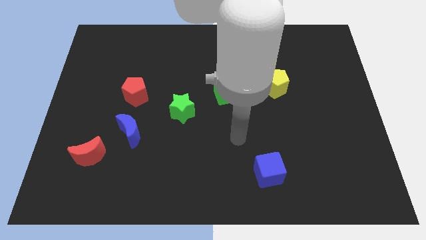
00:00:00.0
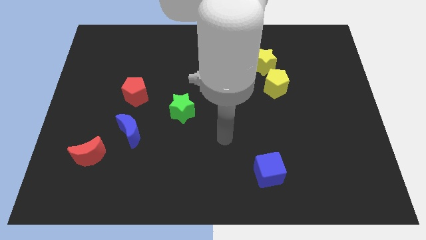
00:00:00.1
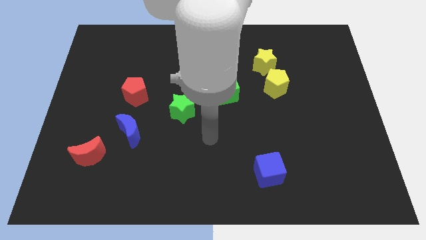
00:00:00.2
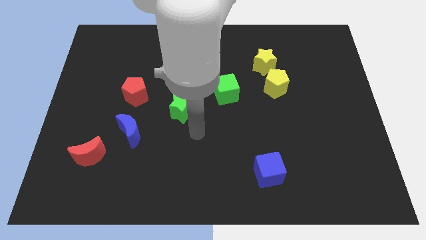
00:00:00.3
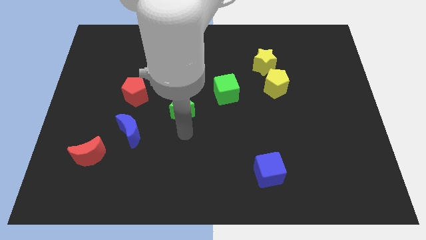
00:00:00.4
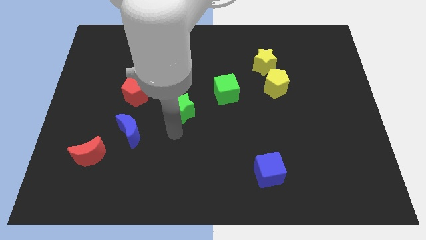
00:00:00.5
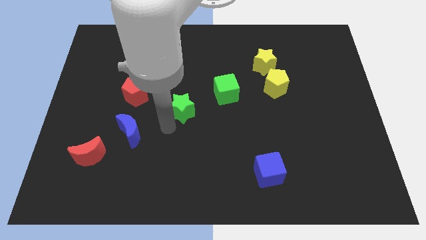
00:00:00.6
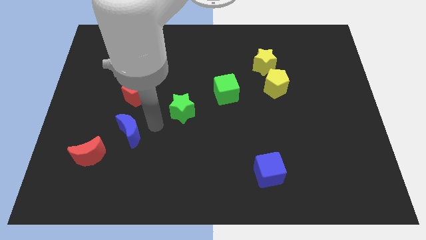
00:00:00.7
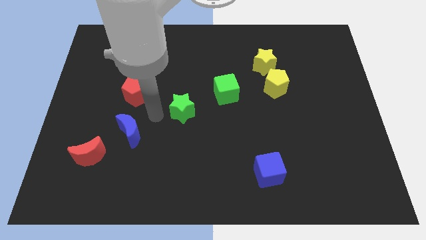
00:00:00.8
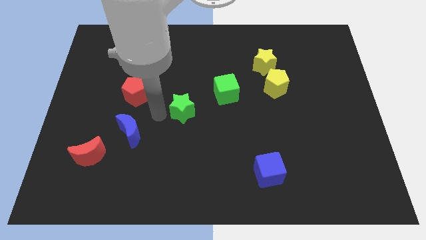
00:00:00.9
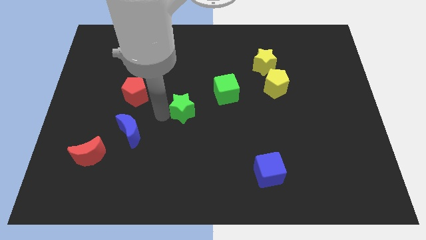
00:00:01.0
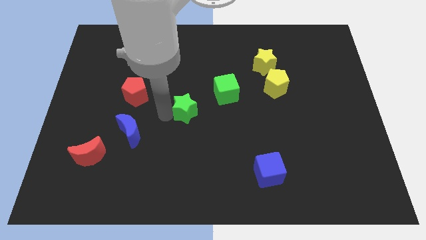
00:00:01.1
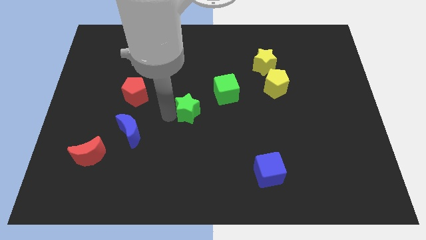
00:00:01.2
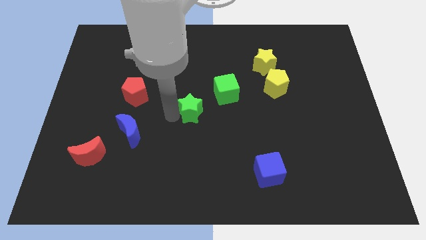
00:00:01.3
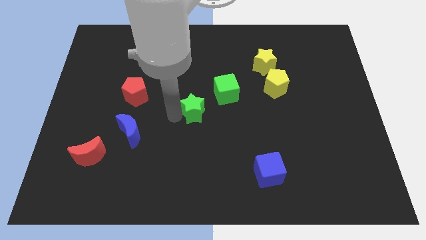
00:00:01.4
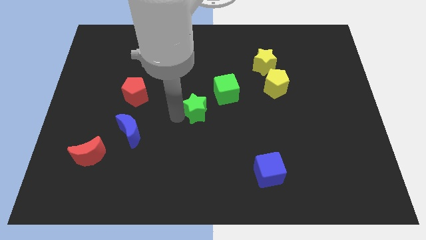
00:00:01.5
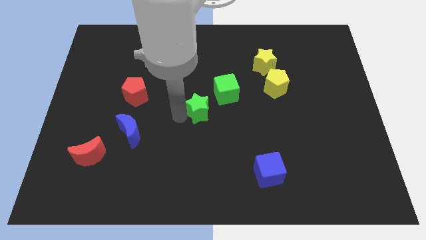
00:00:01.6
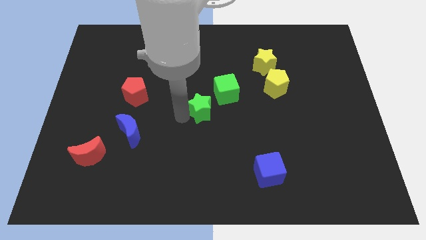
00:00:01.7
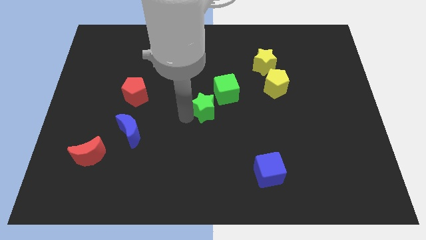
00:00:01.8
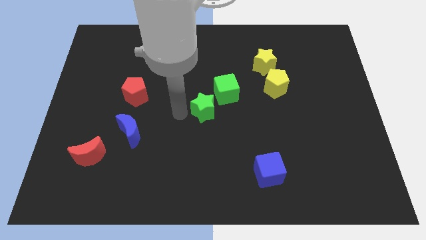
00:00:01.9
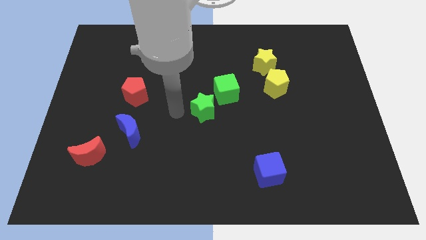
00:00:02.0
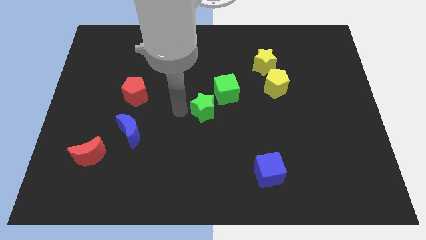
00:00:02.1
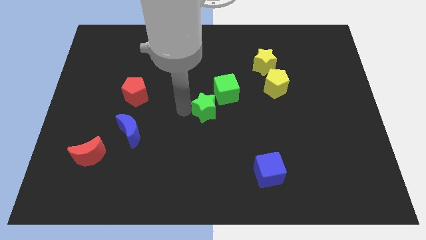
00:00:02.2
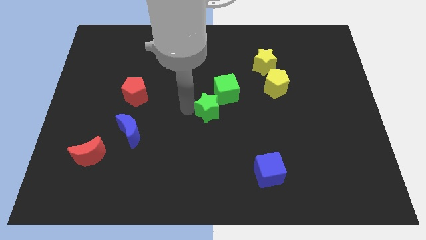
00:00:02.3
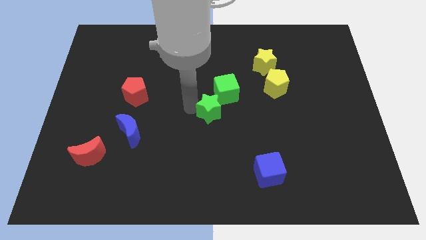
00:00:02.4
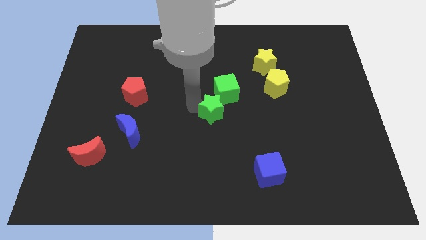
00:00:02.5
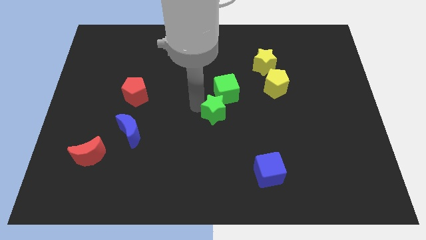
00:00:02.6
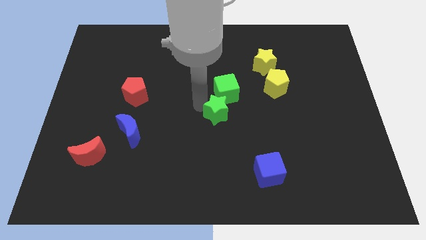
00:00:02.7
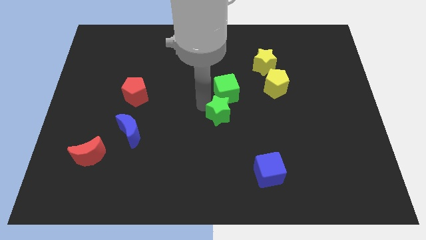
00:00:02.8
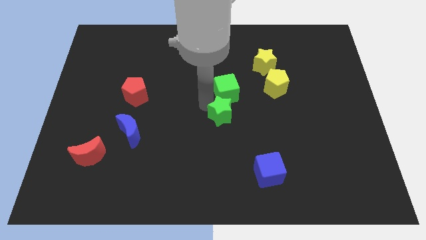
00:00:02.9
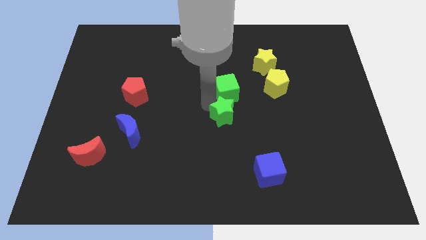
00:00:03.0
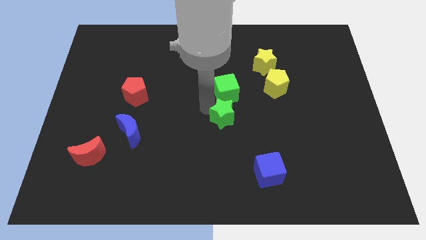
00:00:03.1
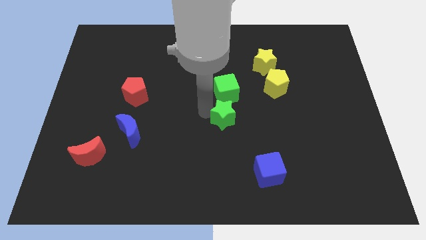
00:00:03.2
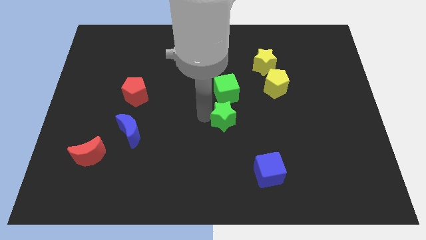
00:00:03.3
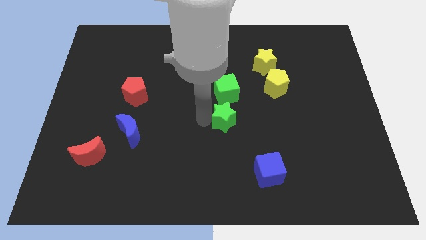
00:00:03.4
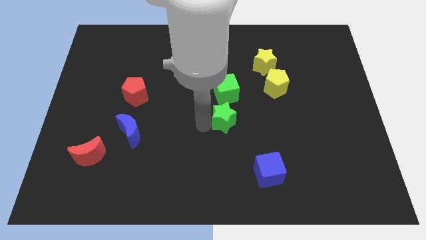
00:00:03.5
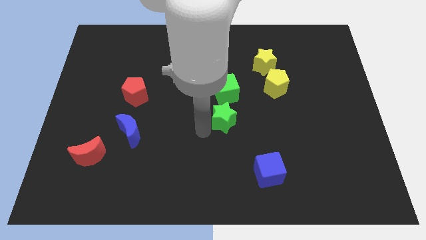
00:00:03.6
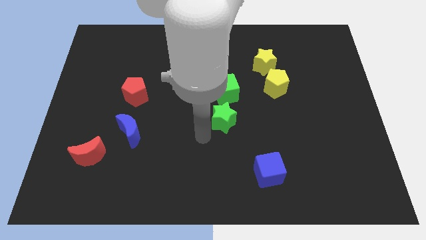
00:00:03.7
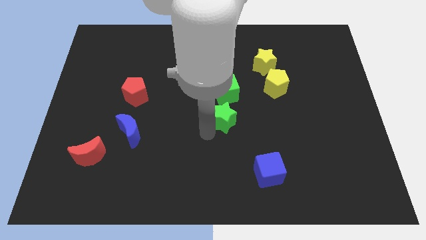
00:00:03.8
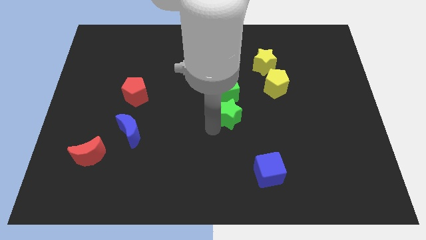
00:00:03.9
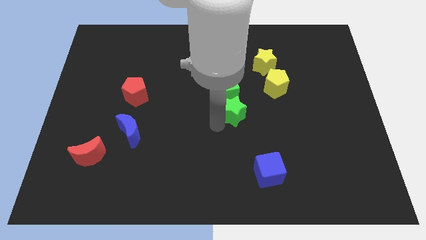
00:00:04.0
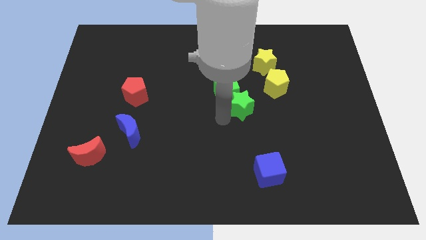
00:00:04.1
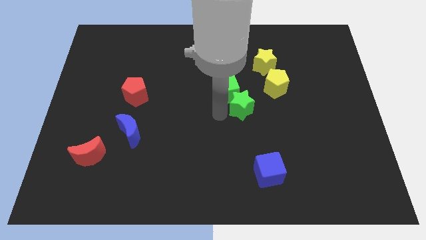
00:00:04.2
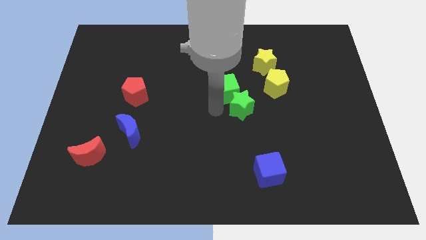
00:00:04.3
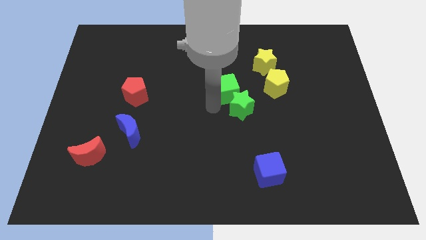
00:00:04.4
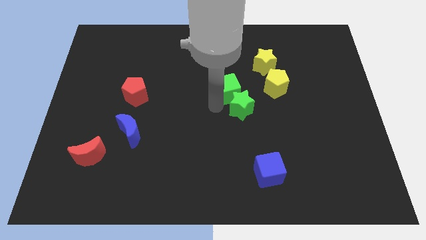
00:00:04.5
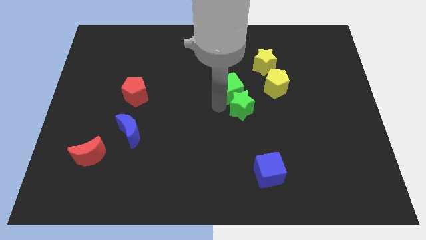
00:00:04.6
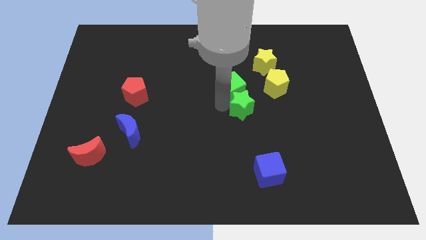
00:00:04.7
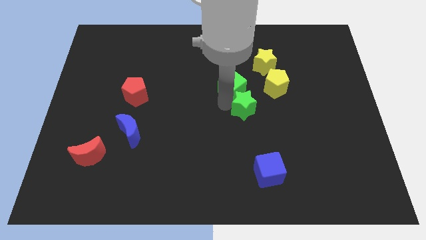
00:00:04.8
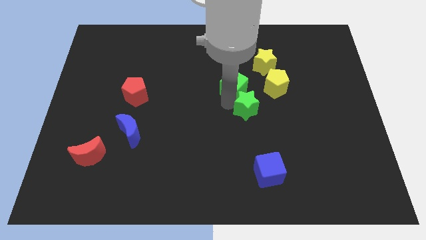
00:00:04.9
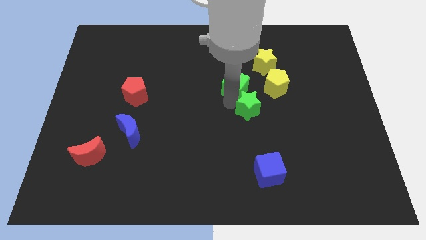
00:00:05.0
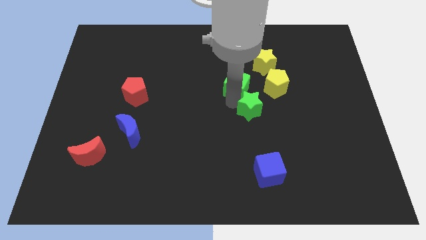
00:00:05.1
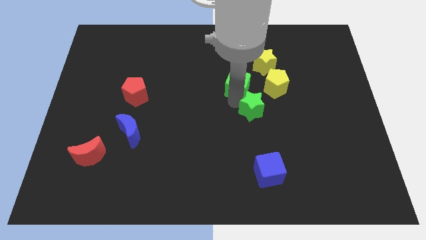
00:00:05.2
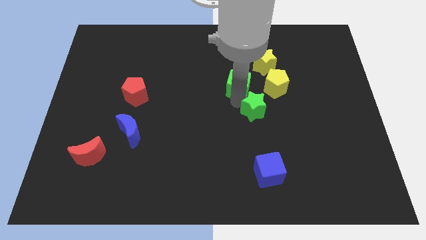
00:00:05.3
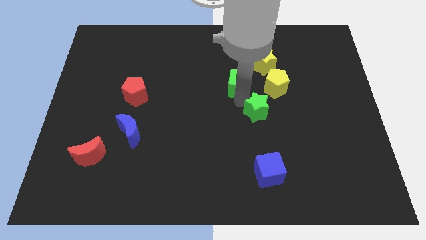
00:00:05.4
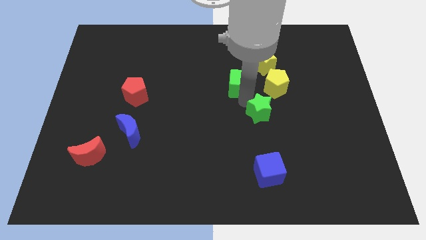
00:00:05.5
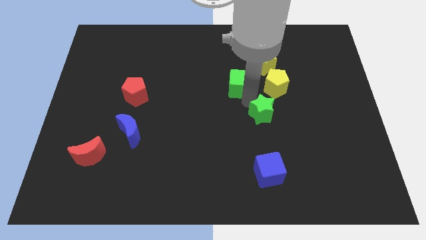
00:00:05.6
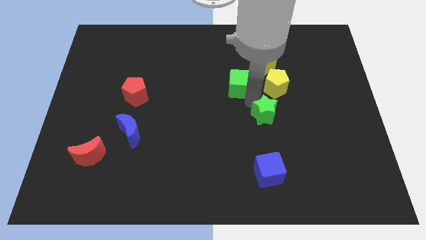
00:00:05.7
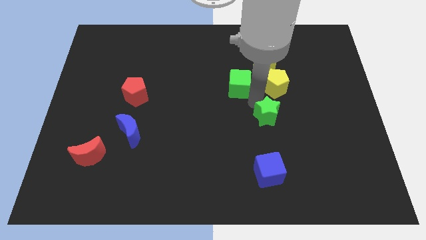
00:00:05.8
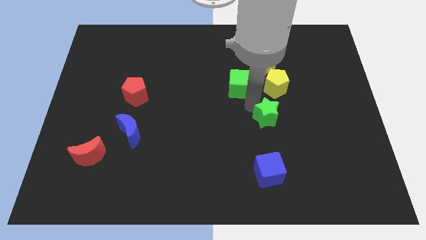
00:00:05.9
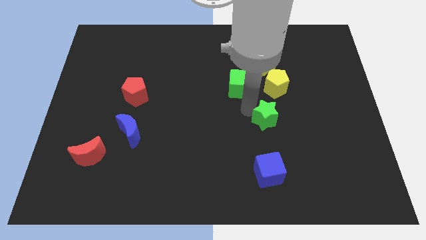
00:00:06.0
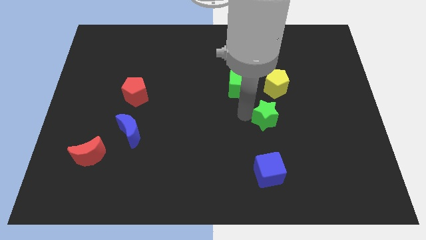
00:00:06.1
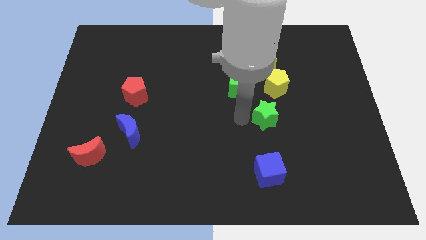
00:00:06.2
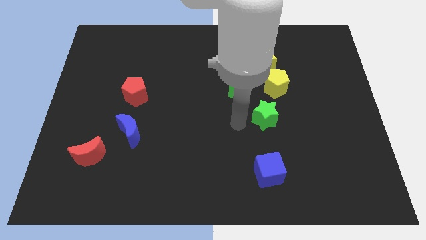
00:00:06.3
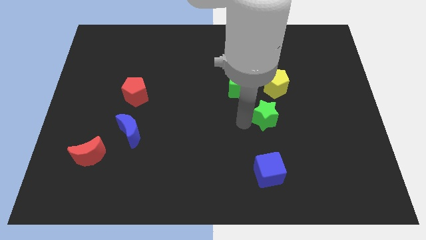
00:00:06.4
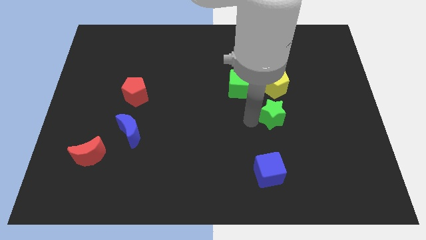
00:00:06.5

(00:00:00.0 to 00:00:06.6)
push the green star to the right

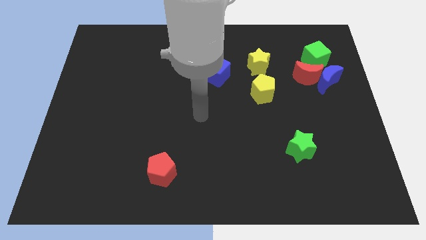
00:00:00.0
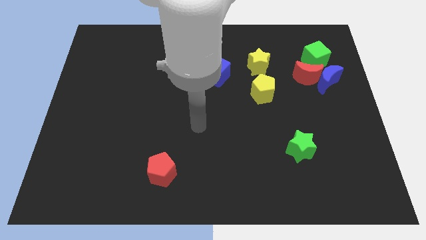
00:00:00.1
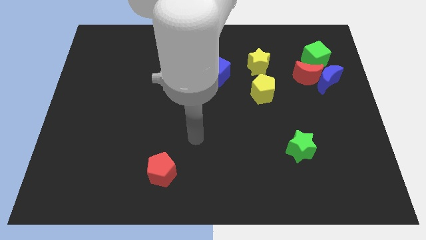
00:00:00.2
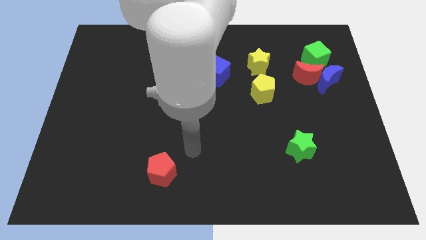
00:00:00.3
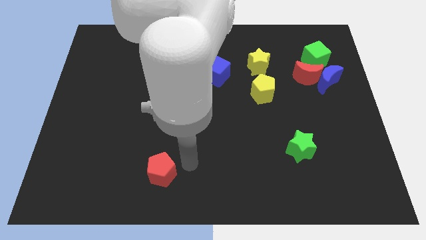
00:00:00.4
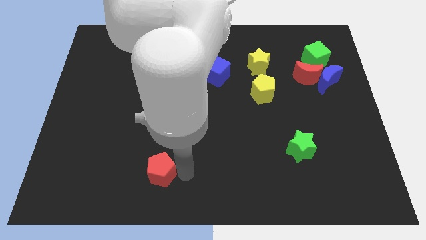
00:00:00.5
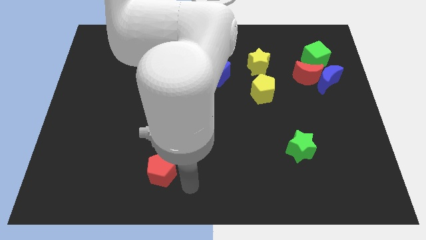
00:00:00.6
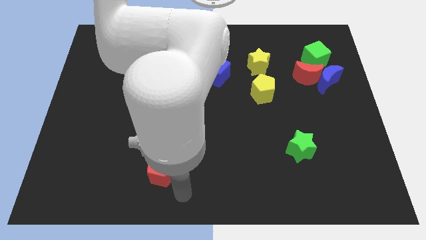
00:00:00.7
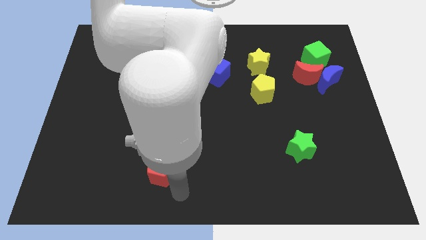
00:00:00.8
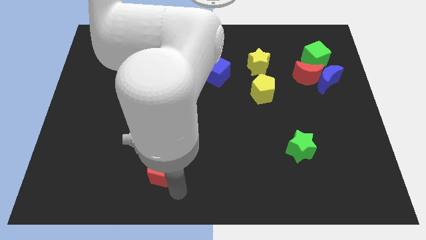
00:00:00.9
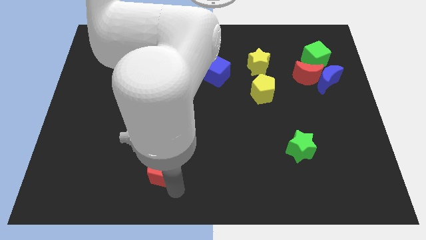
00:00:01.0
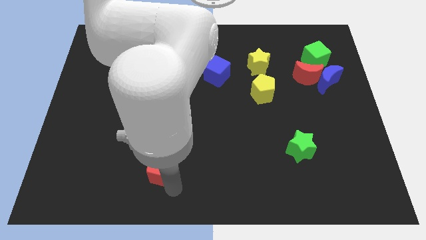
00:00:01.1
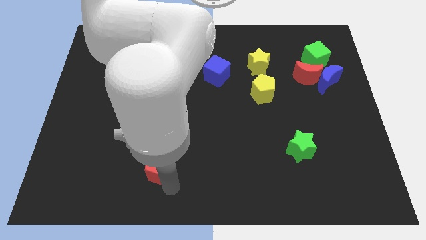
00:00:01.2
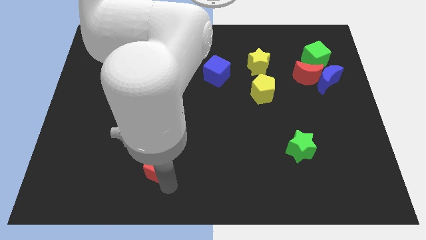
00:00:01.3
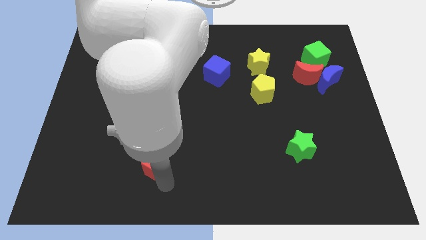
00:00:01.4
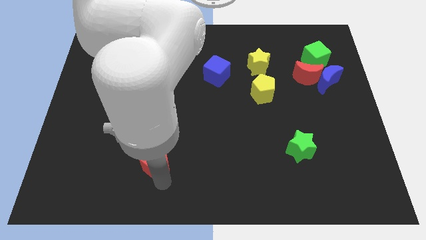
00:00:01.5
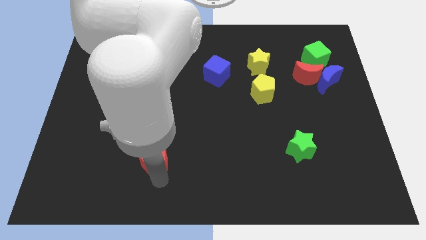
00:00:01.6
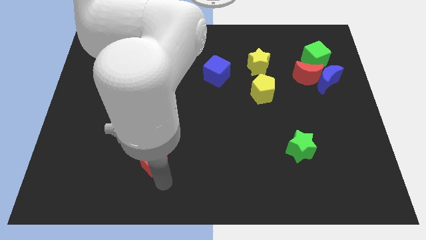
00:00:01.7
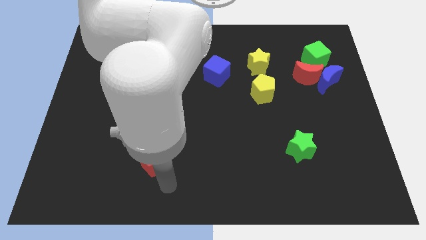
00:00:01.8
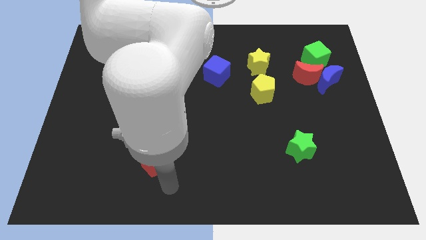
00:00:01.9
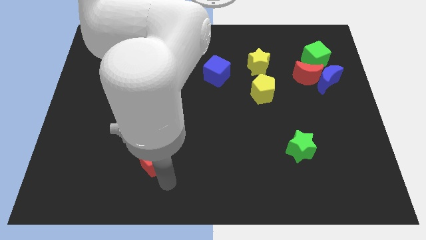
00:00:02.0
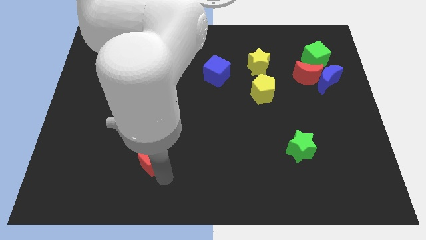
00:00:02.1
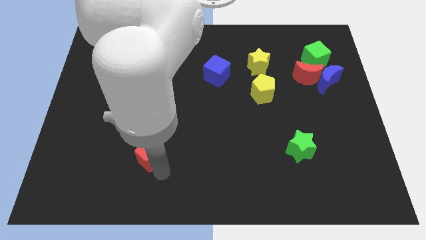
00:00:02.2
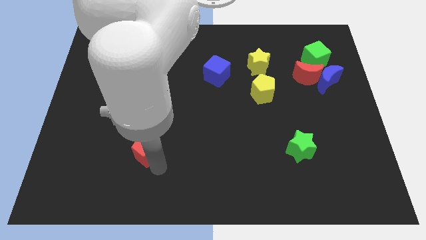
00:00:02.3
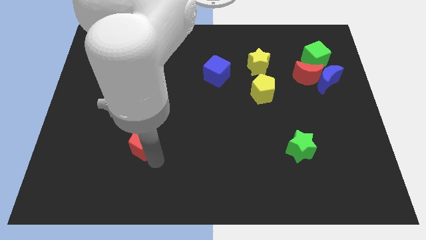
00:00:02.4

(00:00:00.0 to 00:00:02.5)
push the red pentagon up and then left slightly
